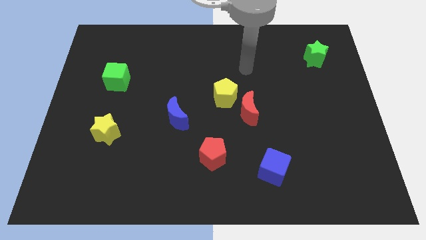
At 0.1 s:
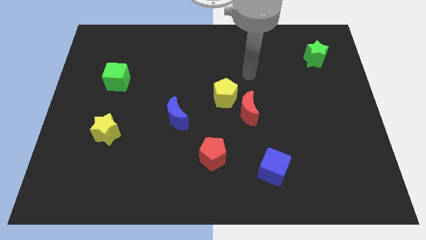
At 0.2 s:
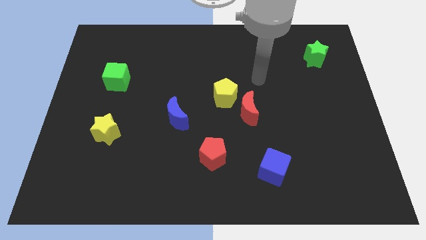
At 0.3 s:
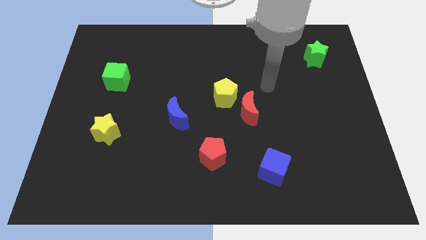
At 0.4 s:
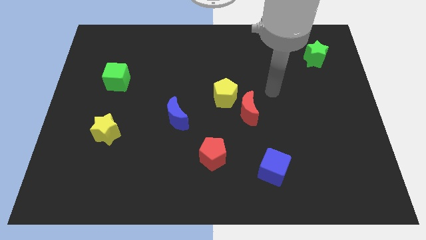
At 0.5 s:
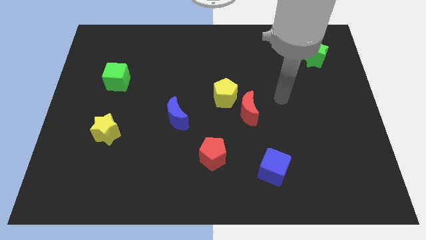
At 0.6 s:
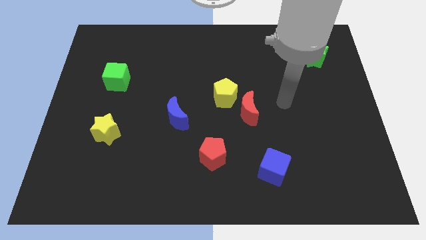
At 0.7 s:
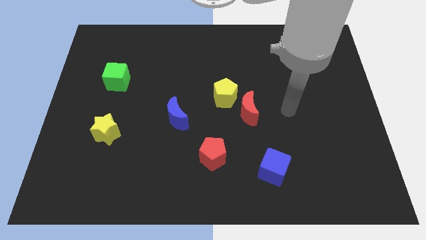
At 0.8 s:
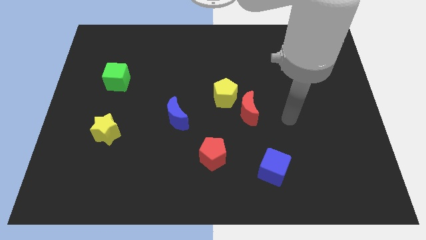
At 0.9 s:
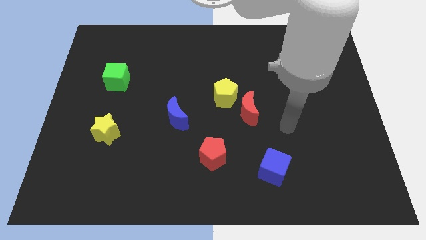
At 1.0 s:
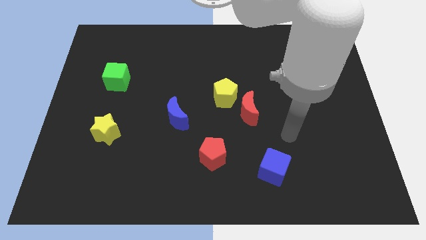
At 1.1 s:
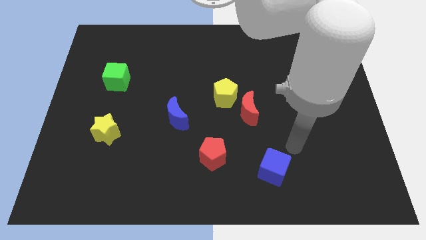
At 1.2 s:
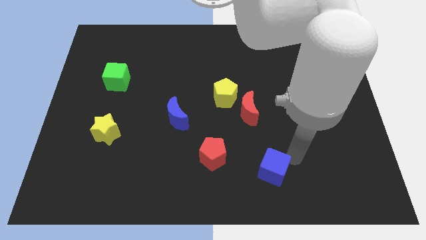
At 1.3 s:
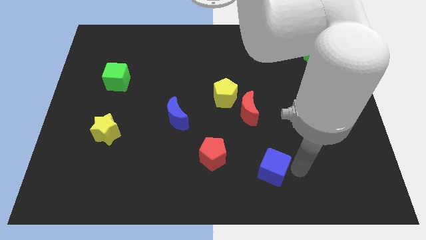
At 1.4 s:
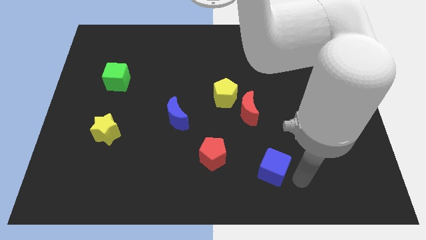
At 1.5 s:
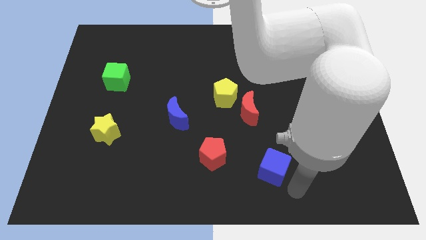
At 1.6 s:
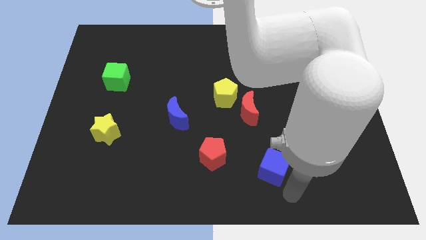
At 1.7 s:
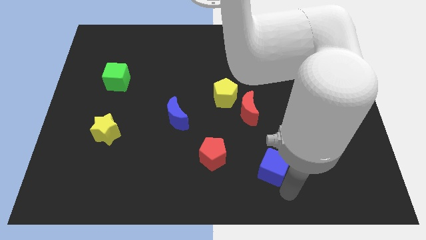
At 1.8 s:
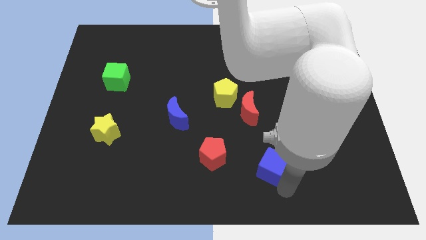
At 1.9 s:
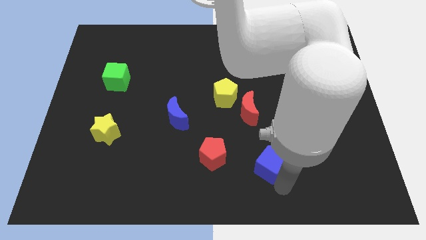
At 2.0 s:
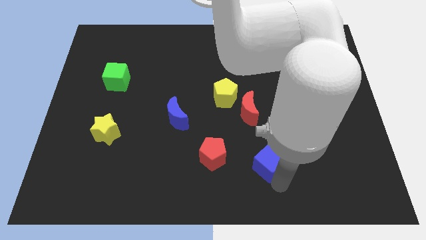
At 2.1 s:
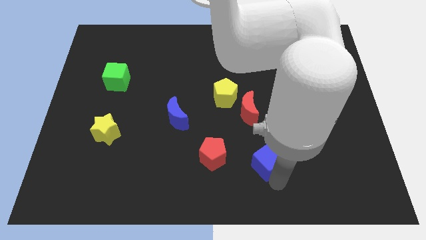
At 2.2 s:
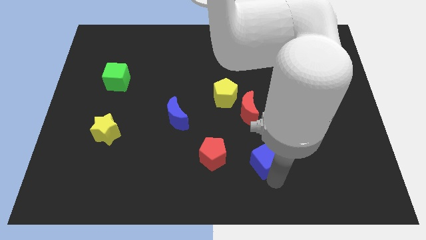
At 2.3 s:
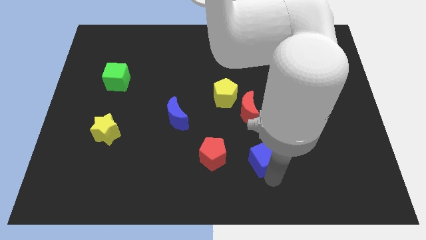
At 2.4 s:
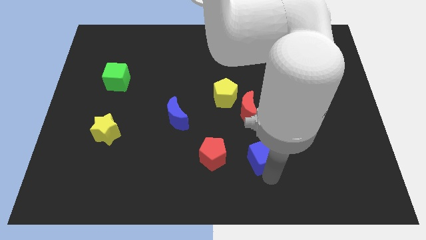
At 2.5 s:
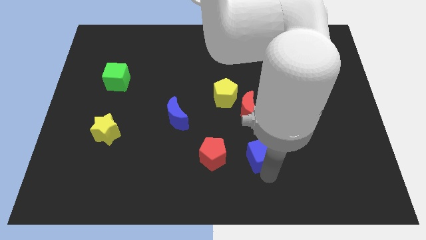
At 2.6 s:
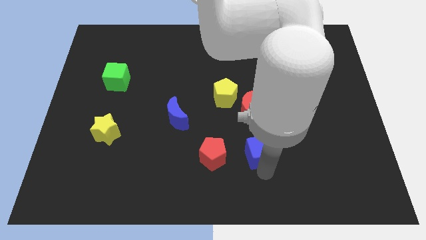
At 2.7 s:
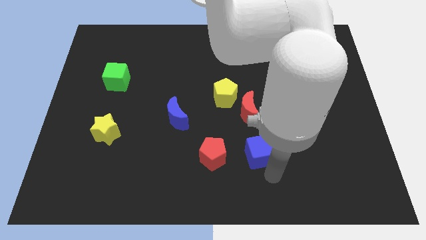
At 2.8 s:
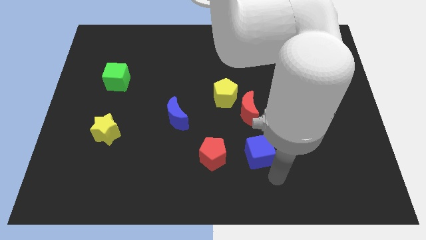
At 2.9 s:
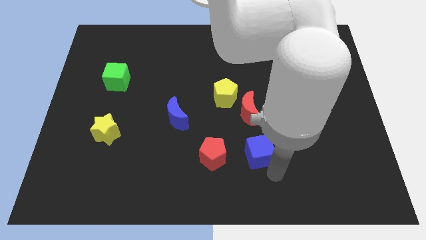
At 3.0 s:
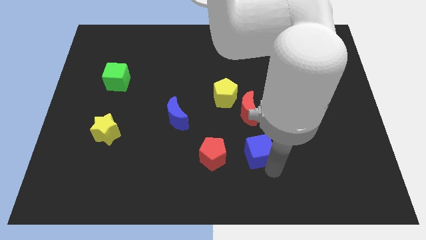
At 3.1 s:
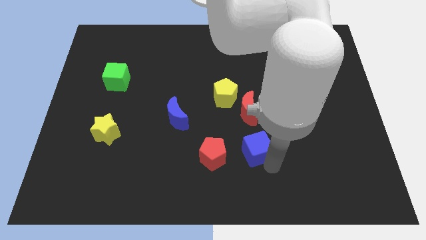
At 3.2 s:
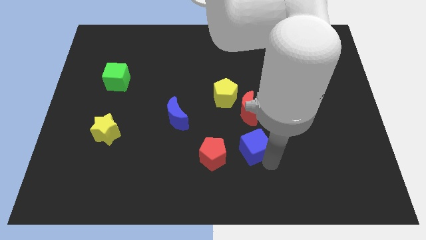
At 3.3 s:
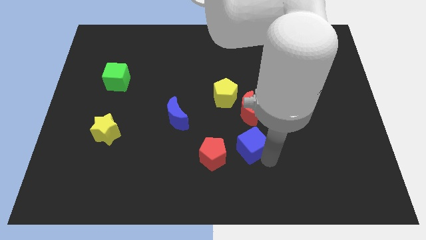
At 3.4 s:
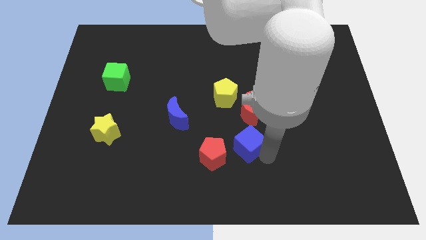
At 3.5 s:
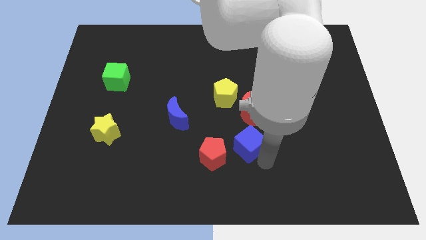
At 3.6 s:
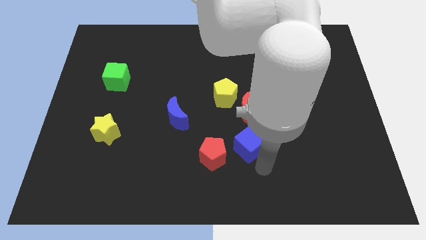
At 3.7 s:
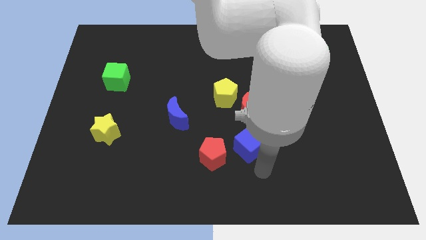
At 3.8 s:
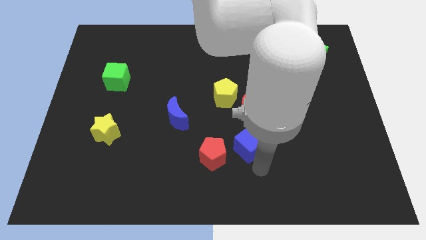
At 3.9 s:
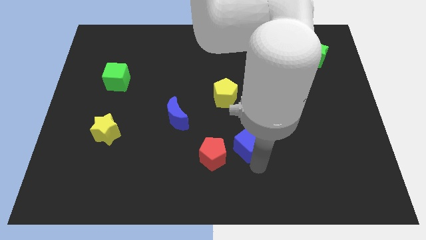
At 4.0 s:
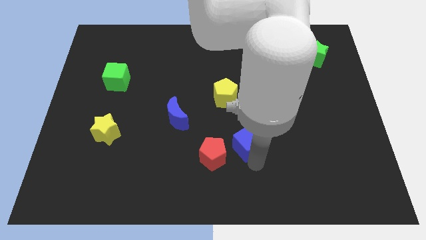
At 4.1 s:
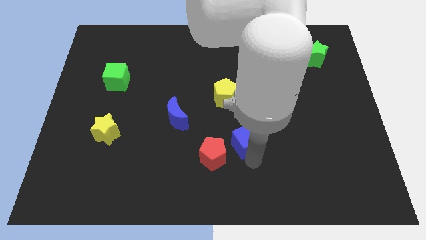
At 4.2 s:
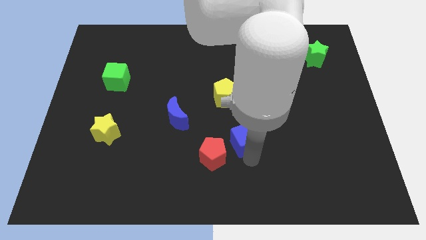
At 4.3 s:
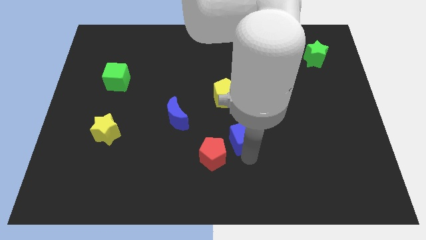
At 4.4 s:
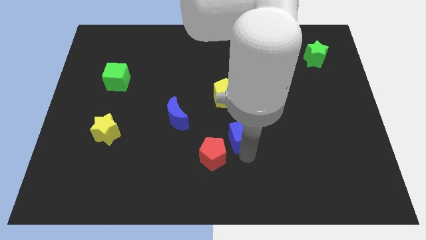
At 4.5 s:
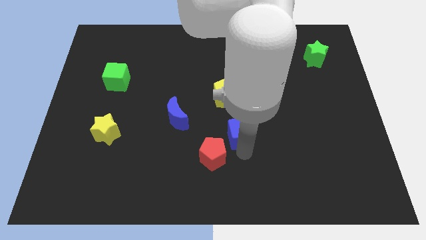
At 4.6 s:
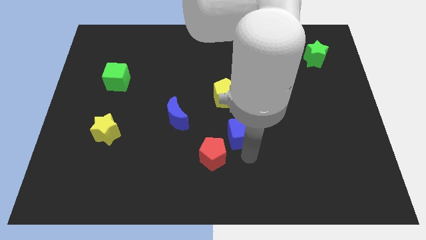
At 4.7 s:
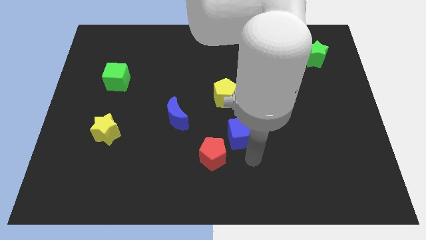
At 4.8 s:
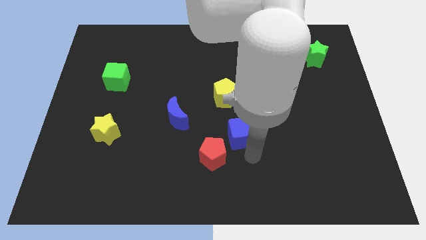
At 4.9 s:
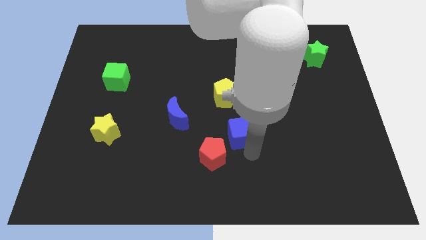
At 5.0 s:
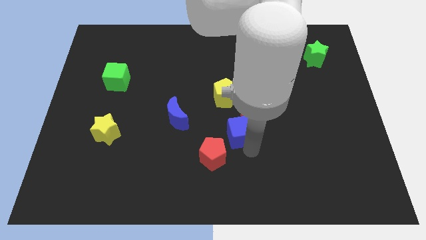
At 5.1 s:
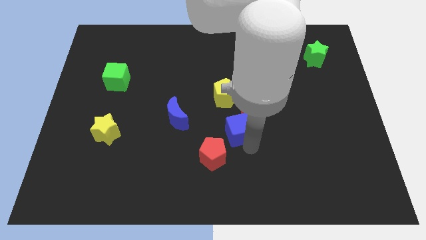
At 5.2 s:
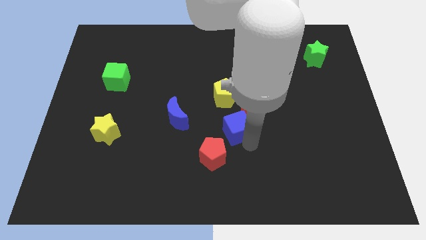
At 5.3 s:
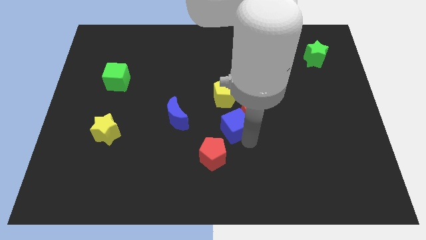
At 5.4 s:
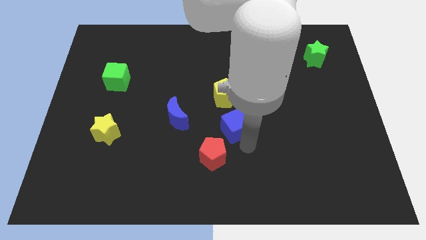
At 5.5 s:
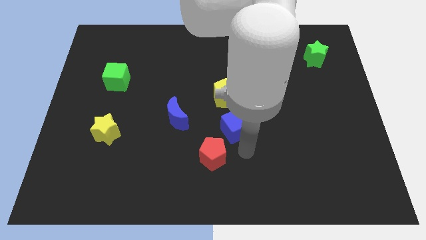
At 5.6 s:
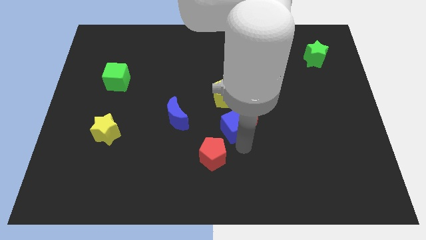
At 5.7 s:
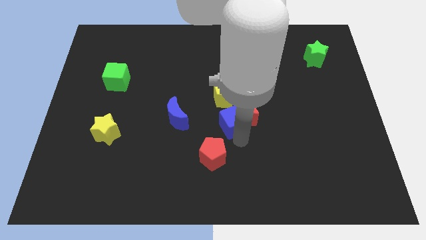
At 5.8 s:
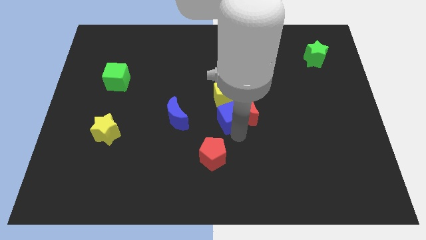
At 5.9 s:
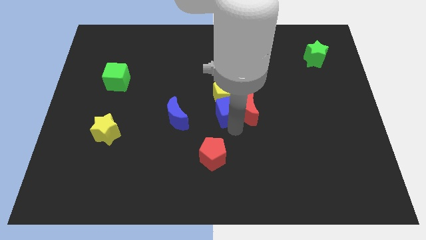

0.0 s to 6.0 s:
slide the blue cube towards the yellow pentagon
